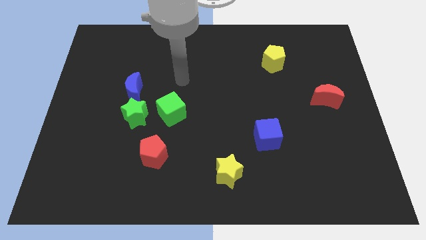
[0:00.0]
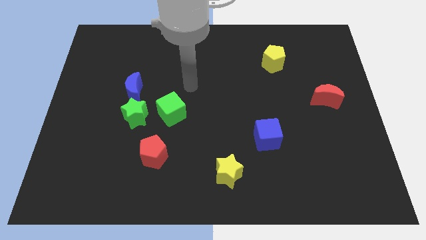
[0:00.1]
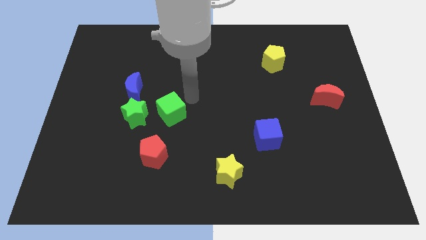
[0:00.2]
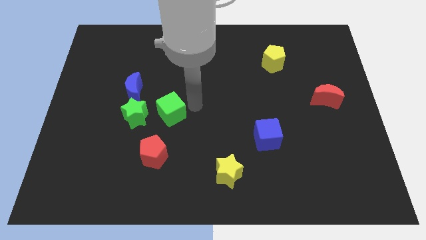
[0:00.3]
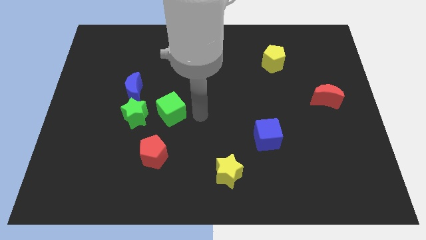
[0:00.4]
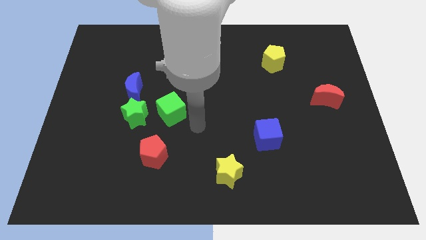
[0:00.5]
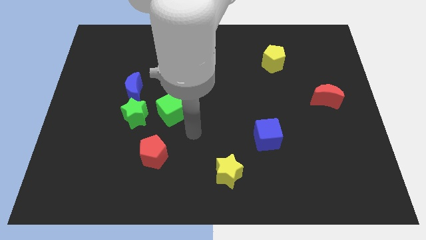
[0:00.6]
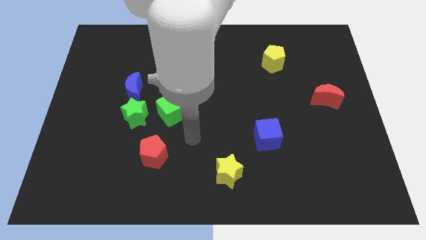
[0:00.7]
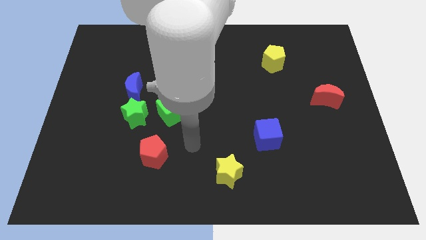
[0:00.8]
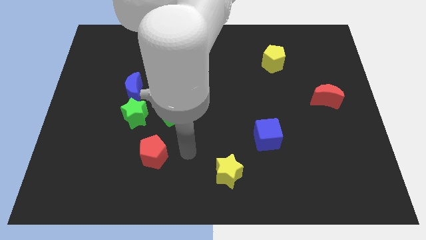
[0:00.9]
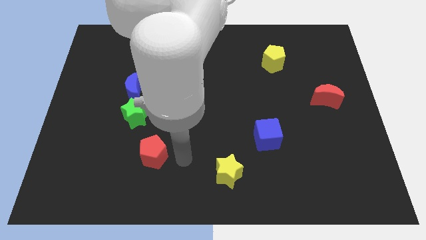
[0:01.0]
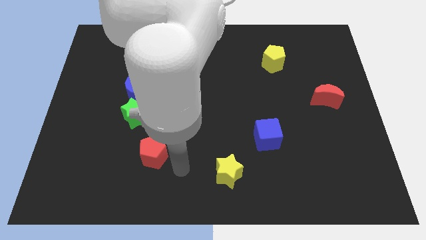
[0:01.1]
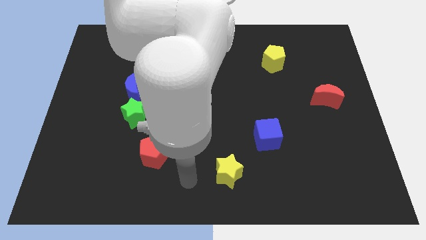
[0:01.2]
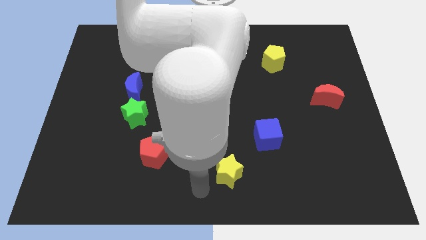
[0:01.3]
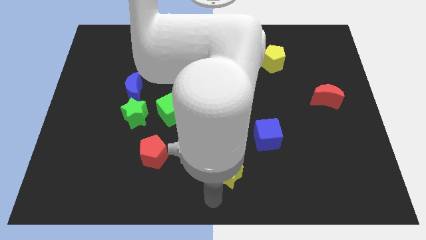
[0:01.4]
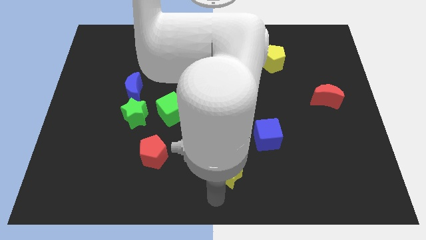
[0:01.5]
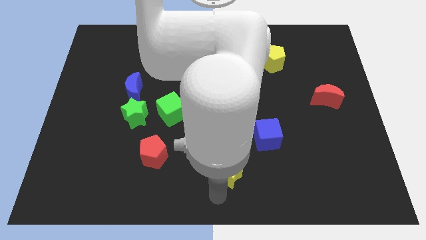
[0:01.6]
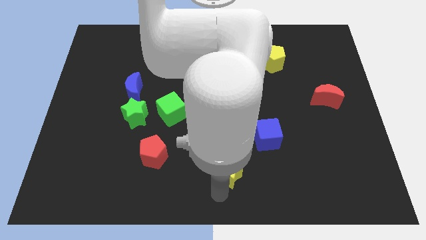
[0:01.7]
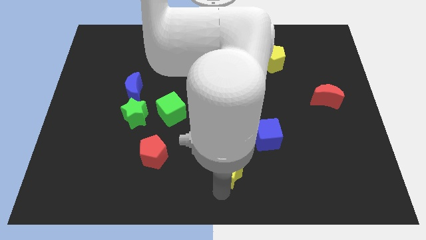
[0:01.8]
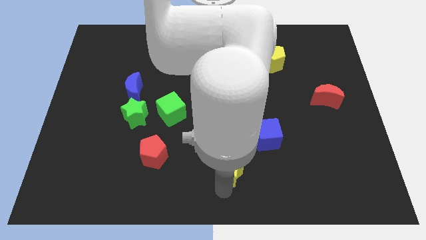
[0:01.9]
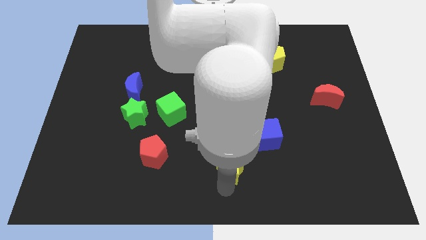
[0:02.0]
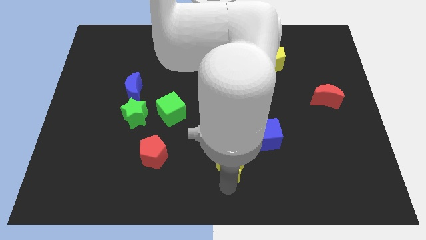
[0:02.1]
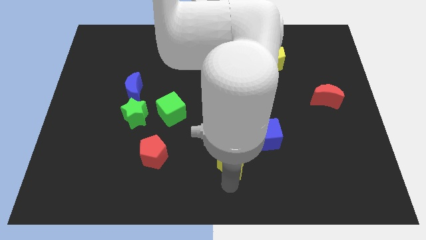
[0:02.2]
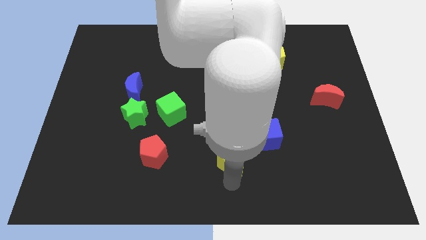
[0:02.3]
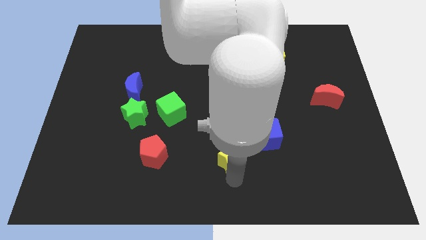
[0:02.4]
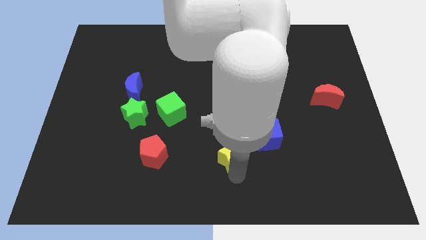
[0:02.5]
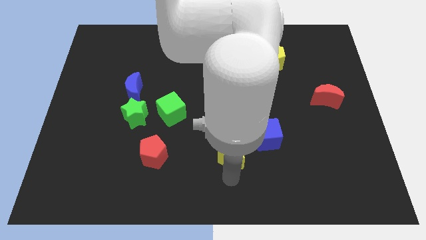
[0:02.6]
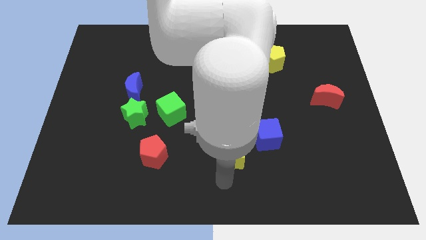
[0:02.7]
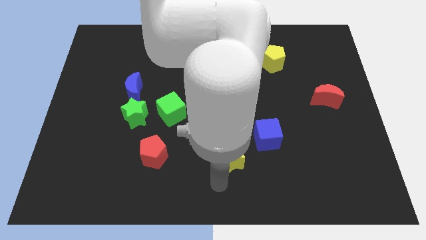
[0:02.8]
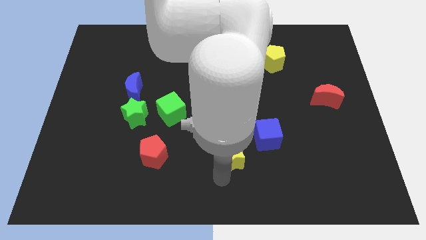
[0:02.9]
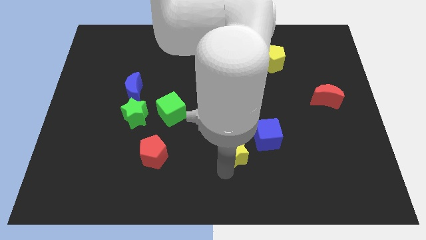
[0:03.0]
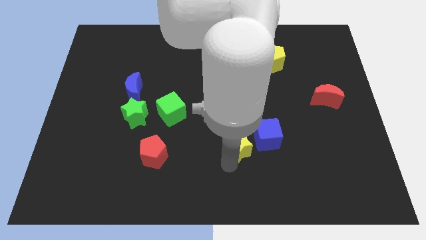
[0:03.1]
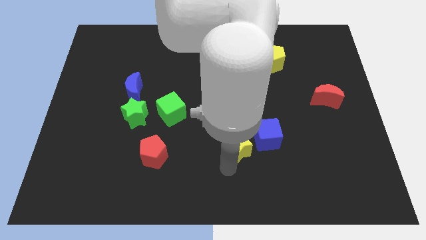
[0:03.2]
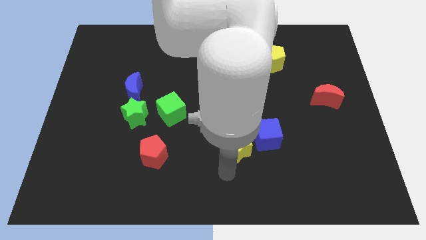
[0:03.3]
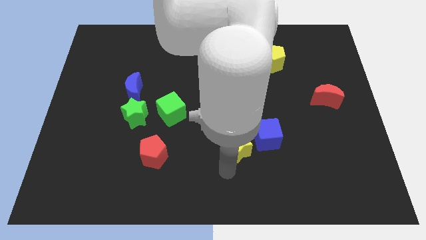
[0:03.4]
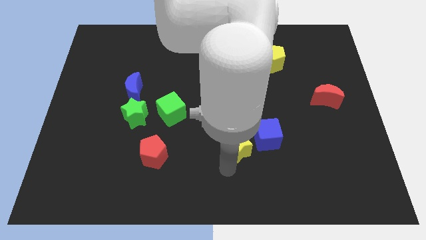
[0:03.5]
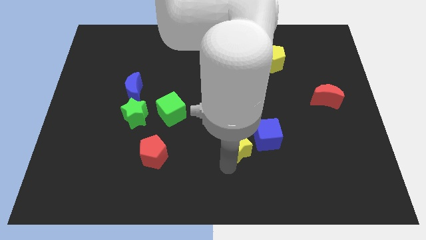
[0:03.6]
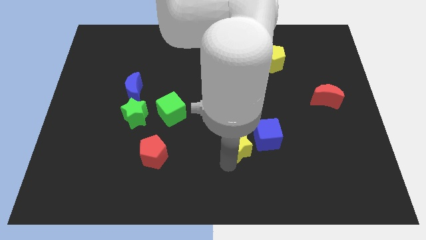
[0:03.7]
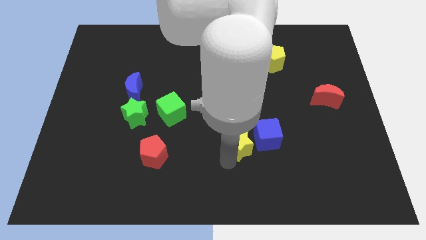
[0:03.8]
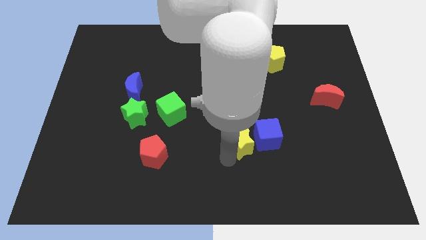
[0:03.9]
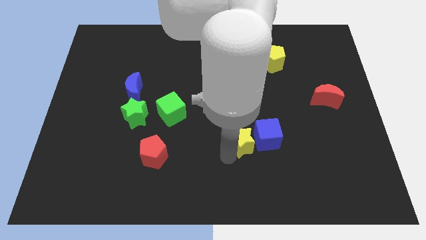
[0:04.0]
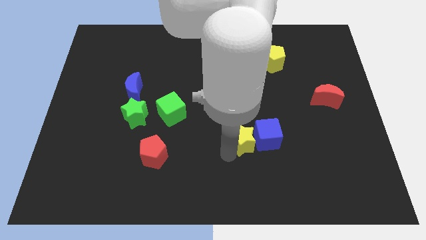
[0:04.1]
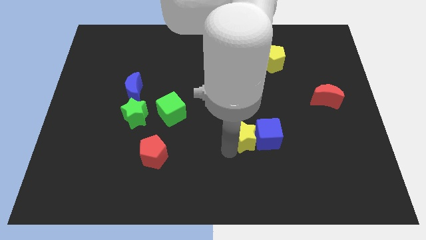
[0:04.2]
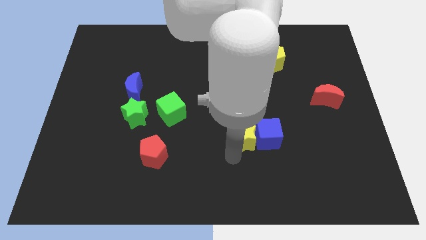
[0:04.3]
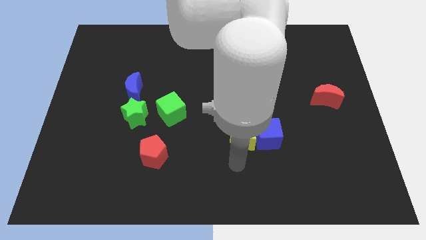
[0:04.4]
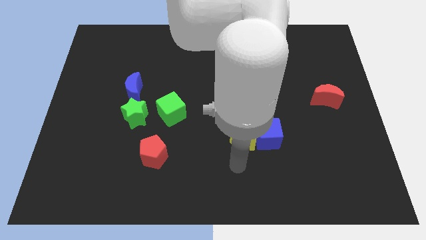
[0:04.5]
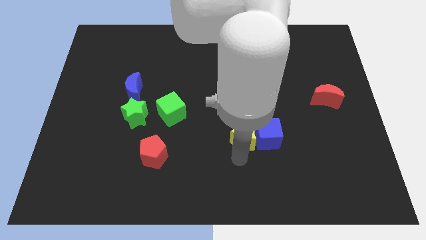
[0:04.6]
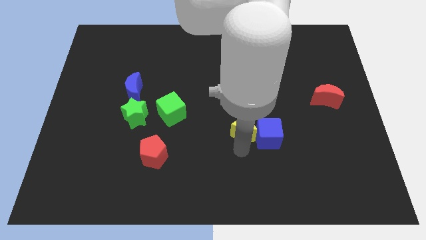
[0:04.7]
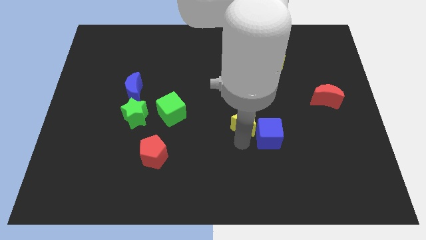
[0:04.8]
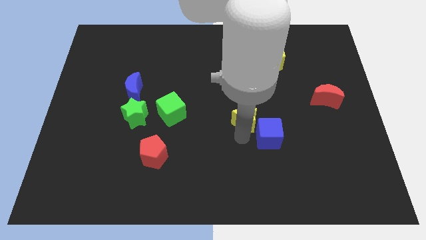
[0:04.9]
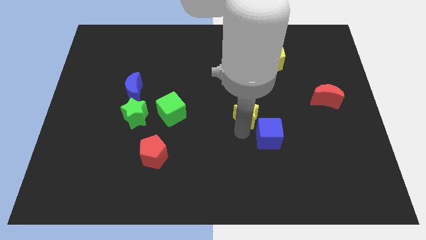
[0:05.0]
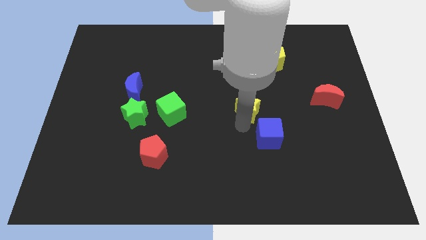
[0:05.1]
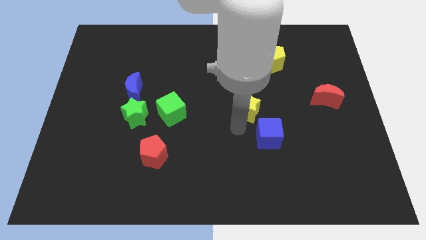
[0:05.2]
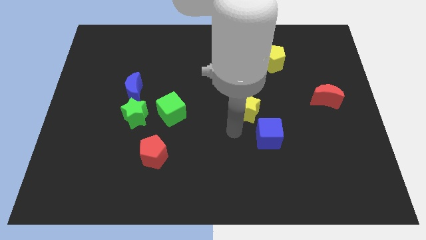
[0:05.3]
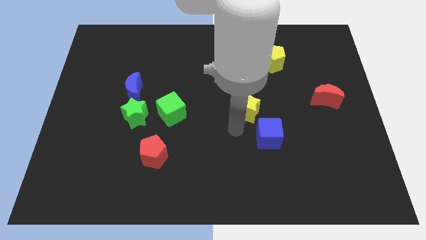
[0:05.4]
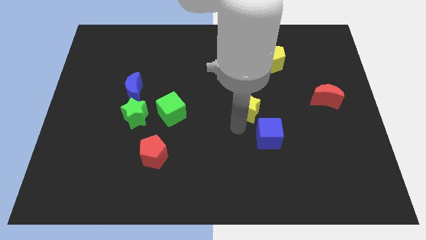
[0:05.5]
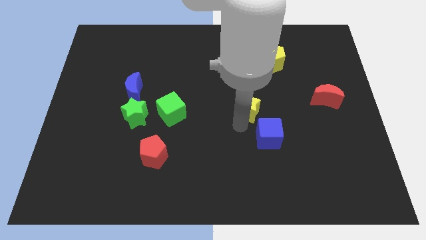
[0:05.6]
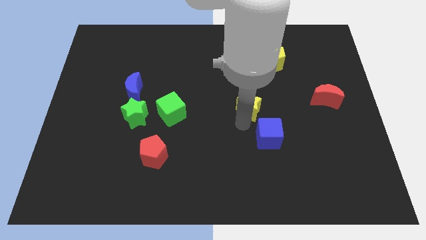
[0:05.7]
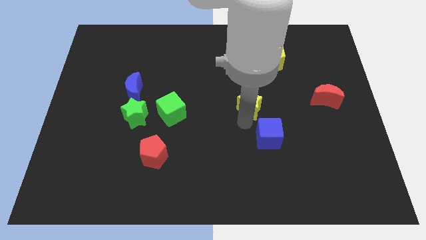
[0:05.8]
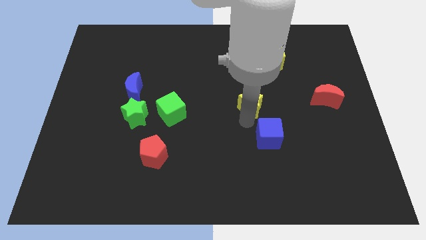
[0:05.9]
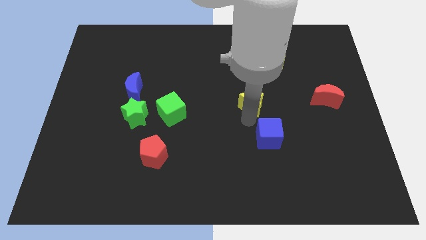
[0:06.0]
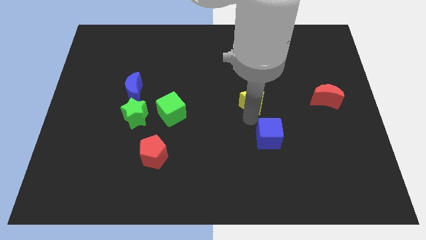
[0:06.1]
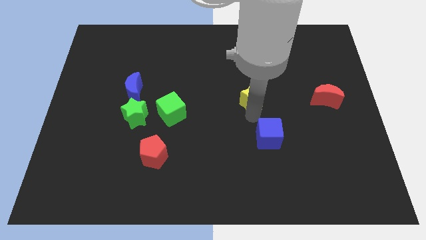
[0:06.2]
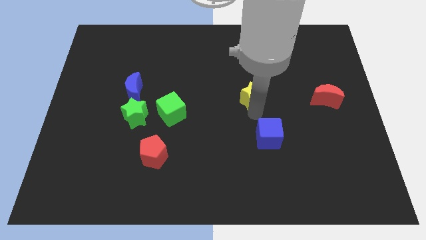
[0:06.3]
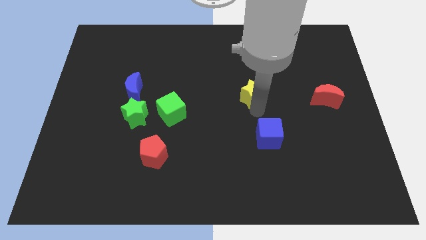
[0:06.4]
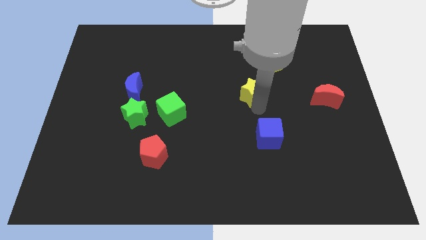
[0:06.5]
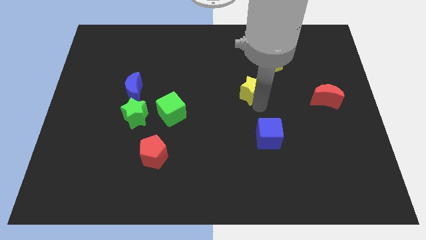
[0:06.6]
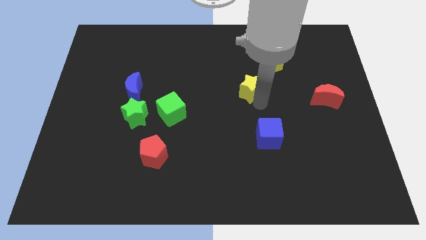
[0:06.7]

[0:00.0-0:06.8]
move the yellow star to the bottom left of the yellow pentagon

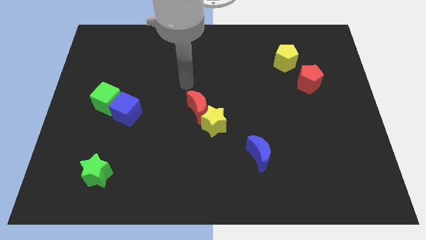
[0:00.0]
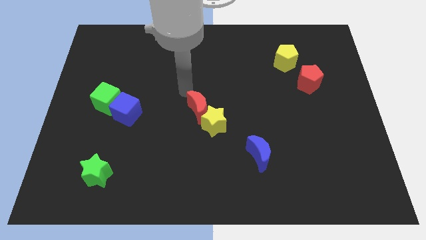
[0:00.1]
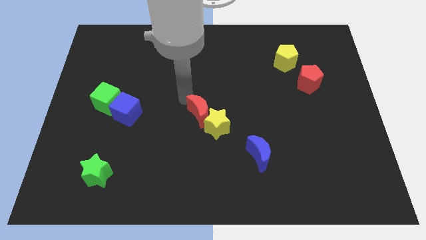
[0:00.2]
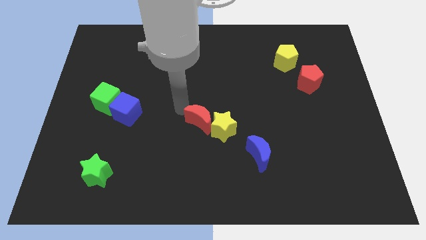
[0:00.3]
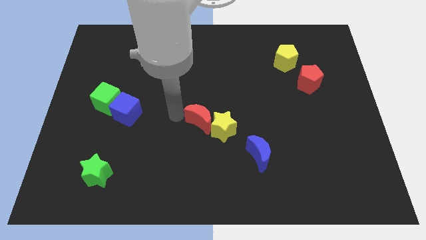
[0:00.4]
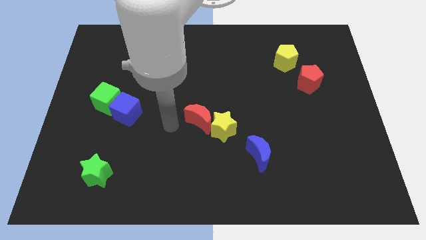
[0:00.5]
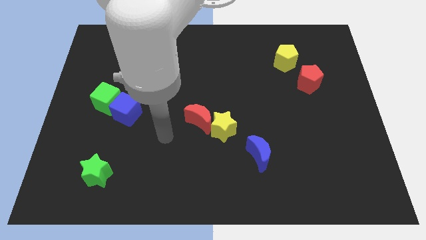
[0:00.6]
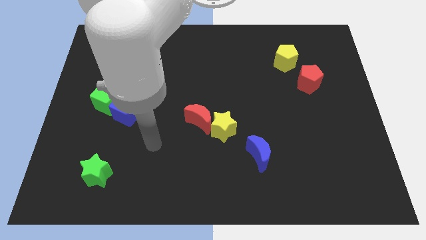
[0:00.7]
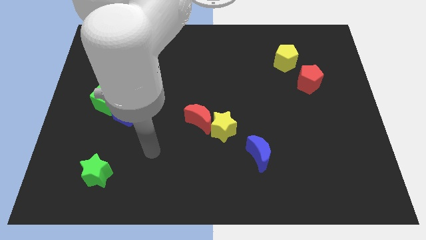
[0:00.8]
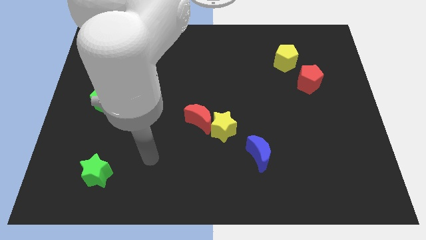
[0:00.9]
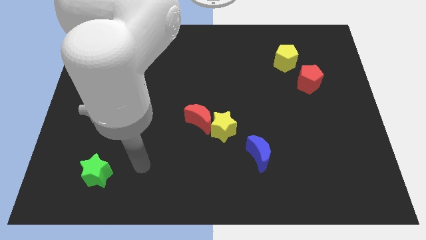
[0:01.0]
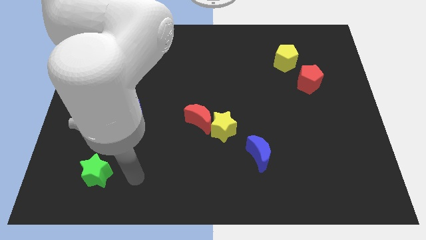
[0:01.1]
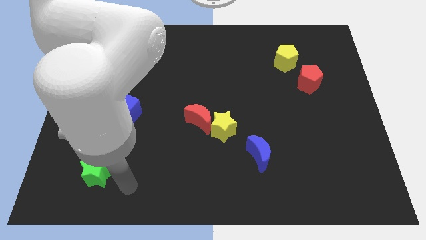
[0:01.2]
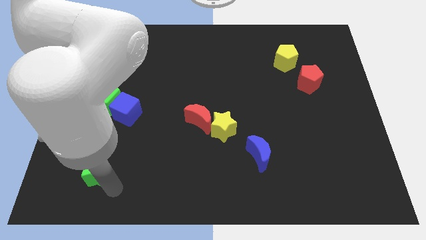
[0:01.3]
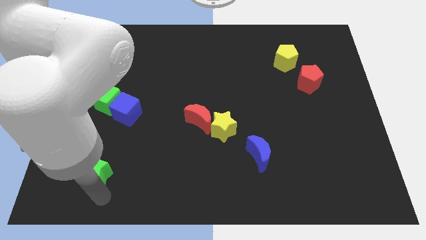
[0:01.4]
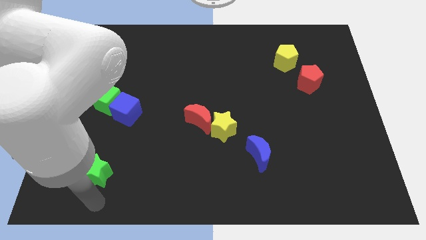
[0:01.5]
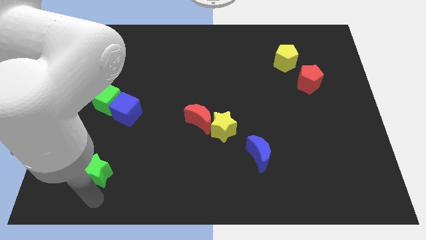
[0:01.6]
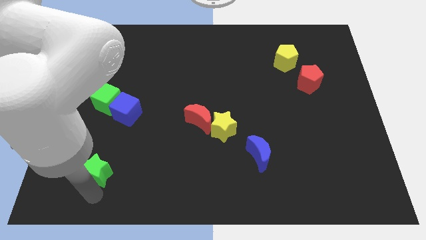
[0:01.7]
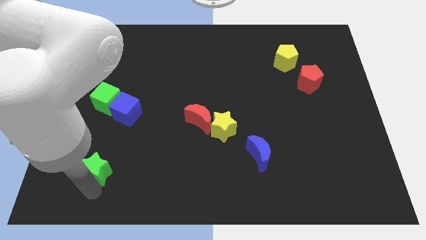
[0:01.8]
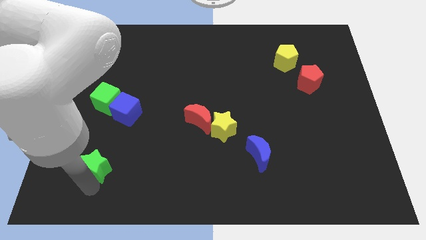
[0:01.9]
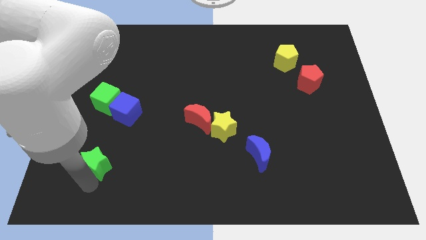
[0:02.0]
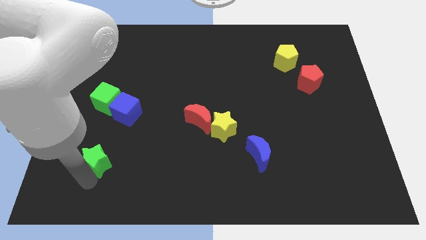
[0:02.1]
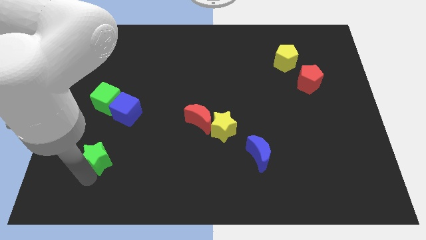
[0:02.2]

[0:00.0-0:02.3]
push the green star below the green cube
